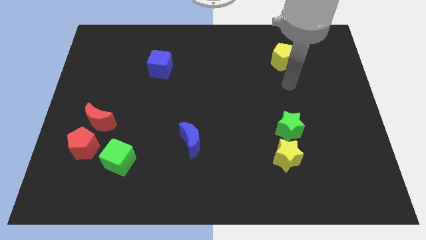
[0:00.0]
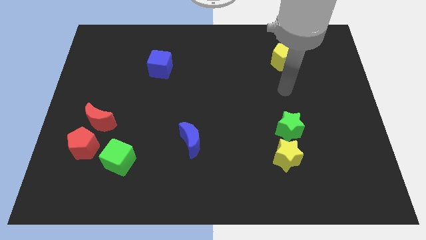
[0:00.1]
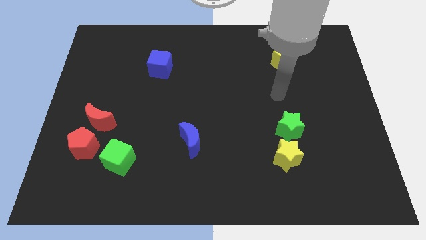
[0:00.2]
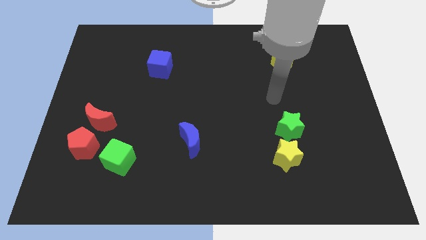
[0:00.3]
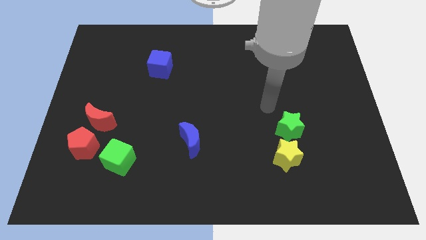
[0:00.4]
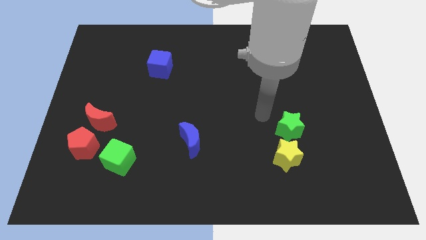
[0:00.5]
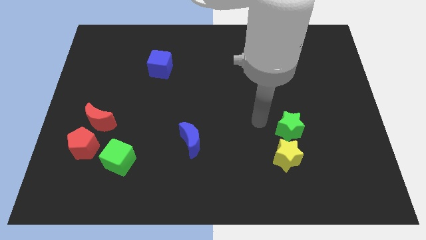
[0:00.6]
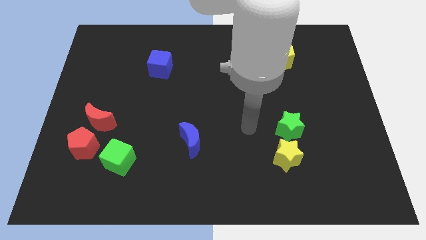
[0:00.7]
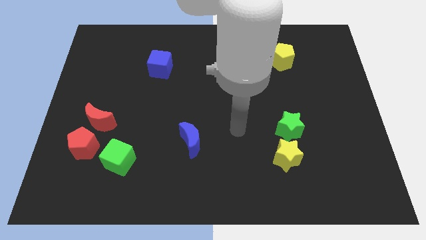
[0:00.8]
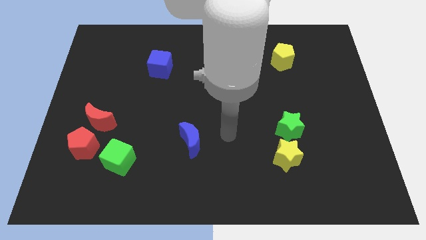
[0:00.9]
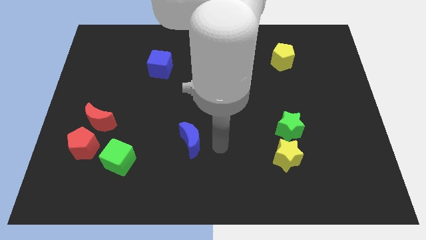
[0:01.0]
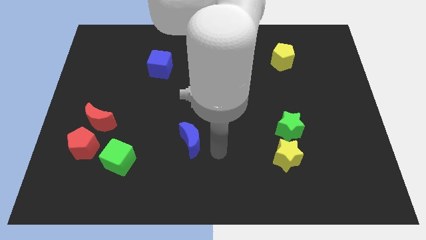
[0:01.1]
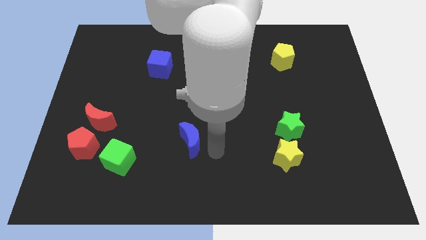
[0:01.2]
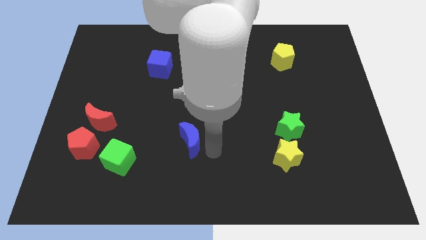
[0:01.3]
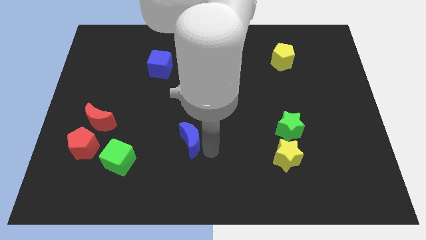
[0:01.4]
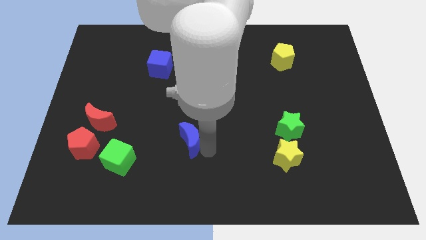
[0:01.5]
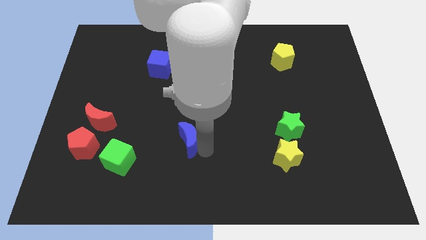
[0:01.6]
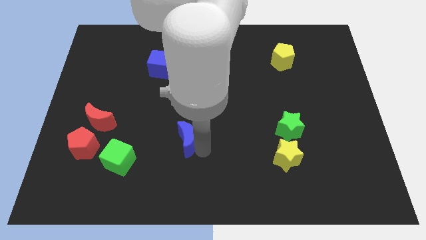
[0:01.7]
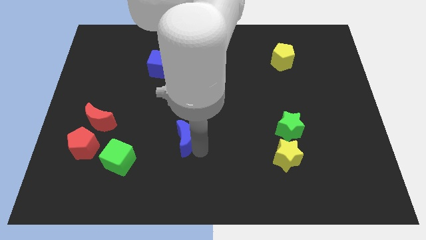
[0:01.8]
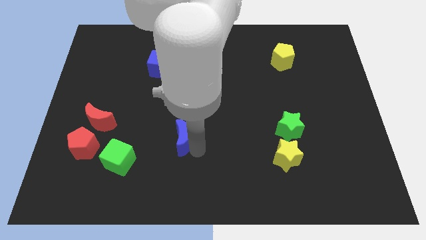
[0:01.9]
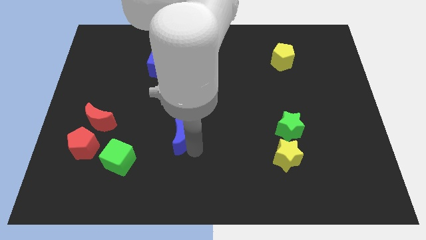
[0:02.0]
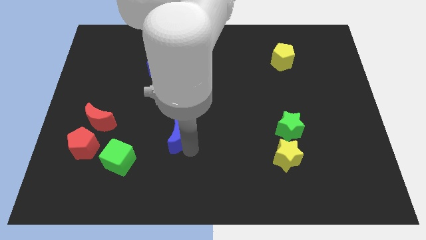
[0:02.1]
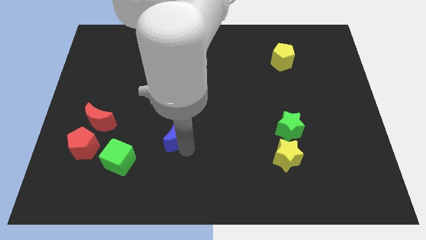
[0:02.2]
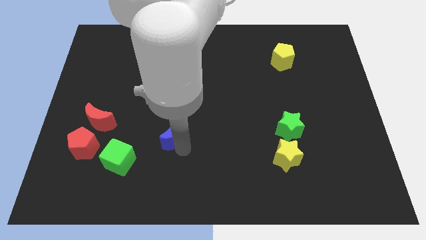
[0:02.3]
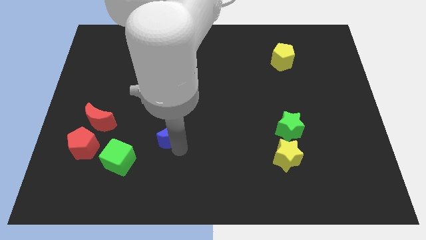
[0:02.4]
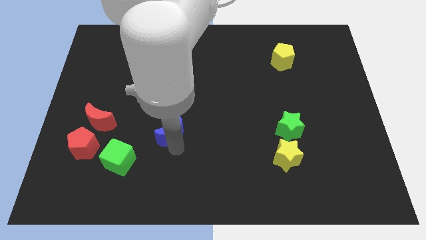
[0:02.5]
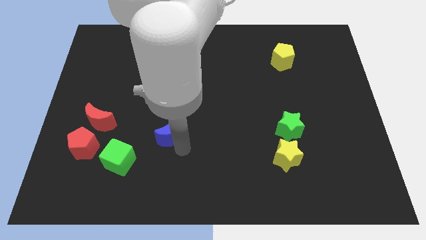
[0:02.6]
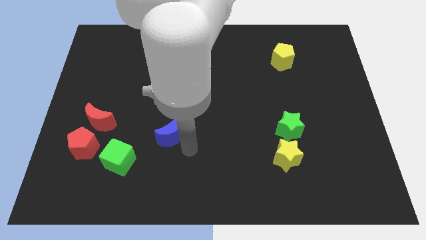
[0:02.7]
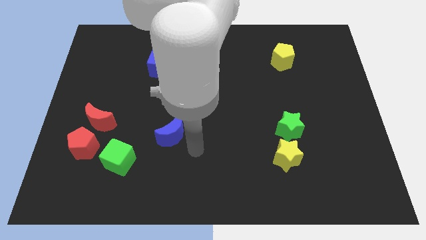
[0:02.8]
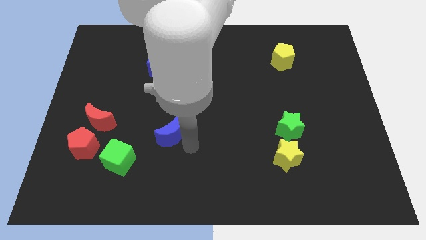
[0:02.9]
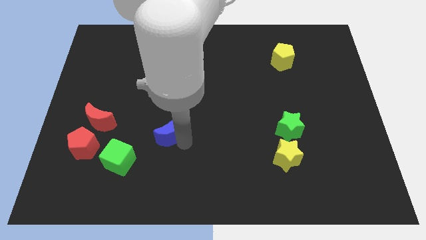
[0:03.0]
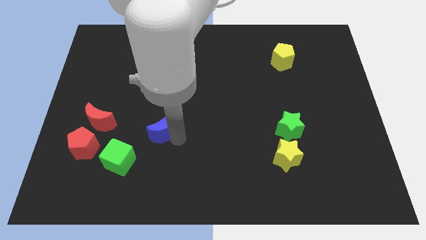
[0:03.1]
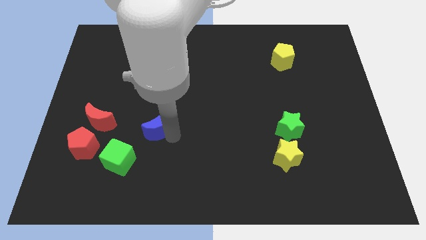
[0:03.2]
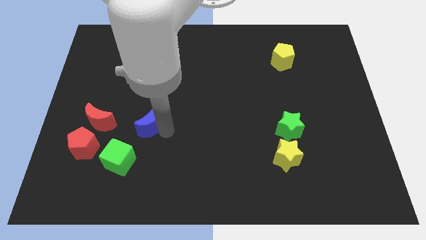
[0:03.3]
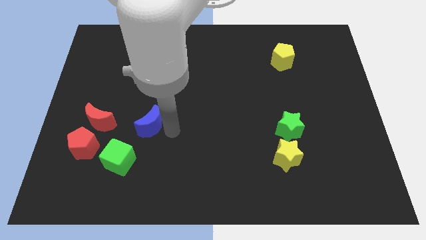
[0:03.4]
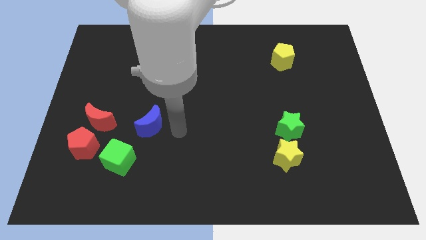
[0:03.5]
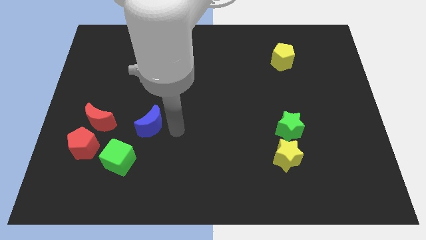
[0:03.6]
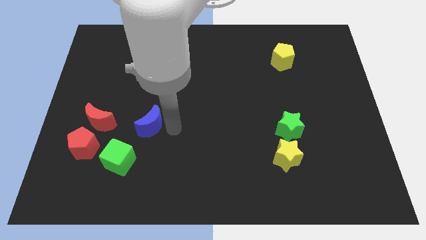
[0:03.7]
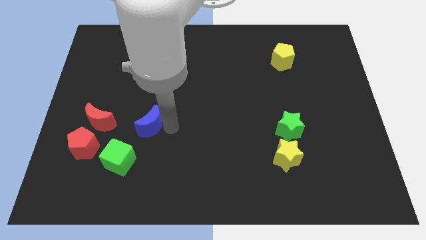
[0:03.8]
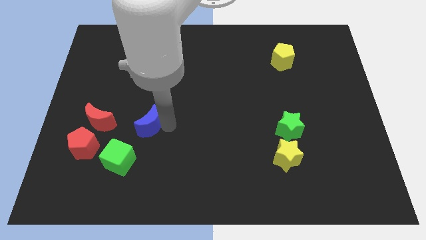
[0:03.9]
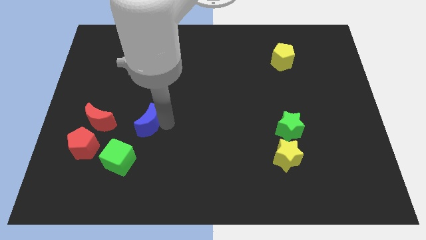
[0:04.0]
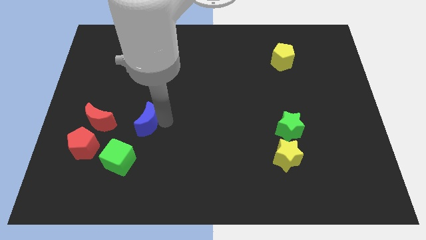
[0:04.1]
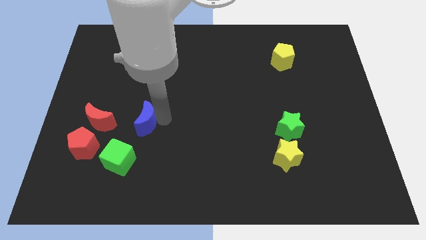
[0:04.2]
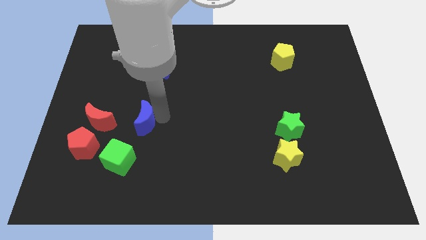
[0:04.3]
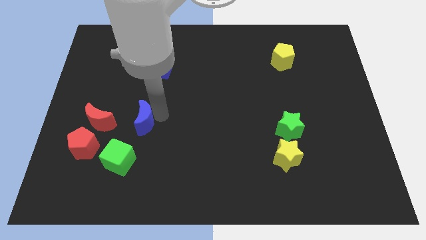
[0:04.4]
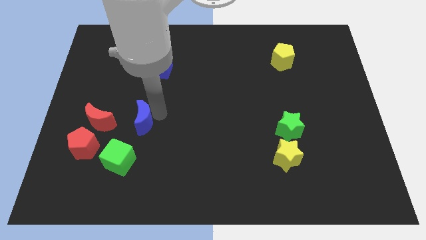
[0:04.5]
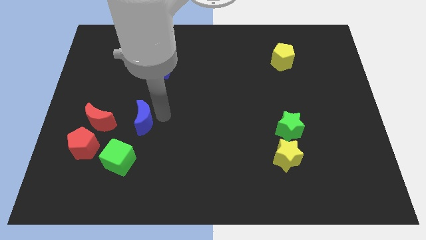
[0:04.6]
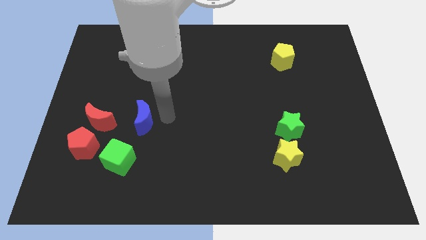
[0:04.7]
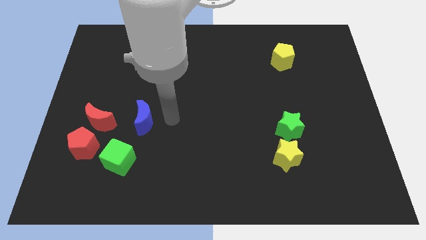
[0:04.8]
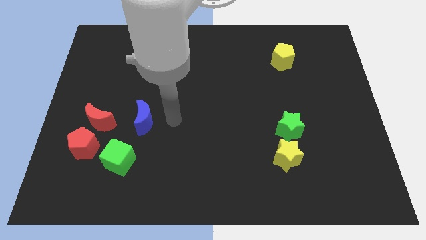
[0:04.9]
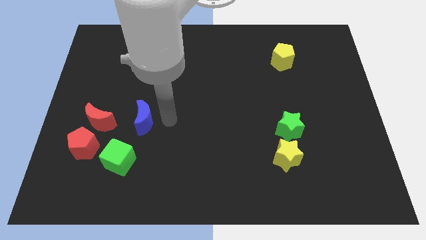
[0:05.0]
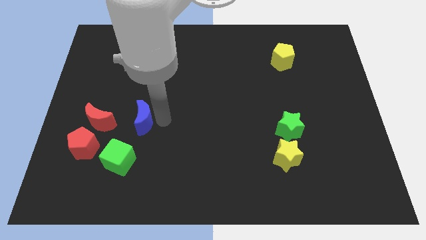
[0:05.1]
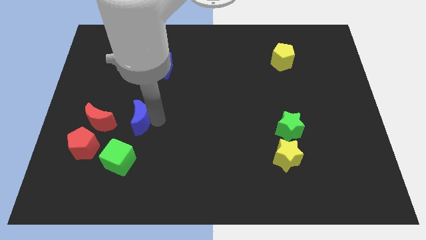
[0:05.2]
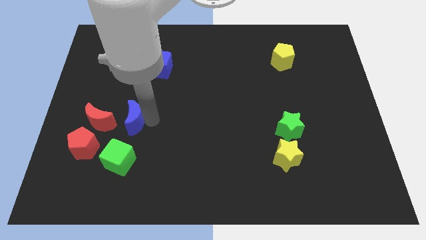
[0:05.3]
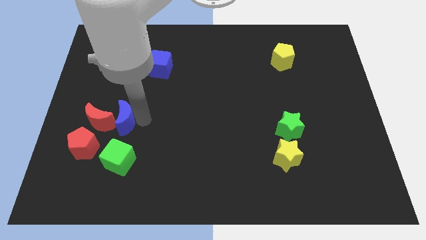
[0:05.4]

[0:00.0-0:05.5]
push the blue moon next to the red moon

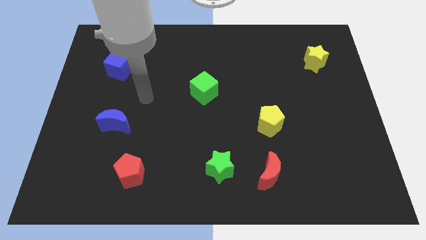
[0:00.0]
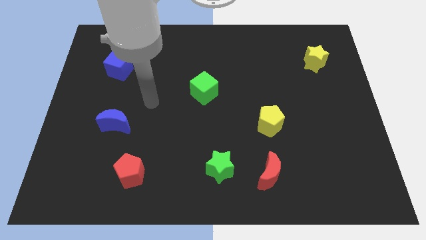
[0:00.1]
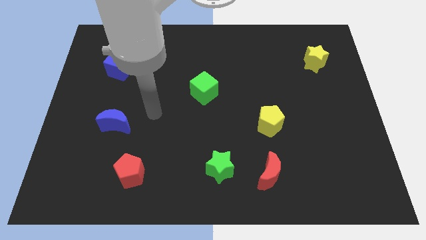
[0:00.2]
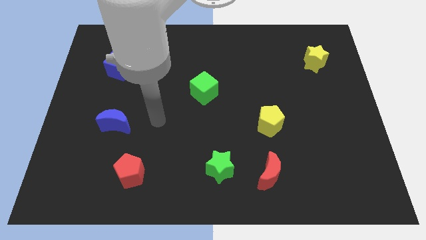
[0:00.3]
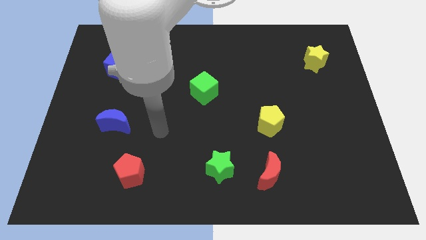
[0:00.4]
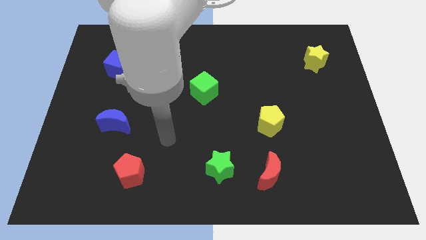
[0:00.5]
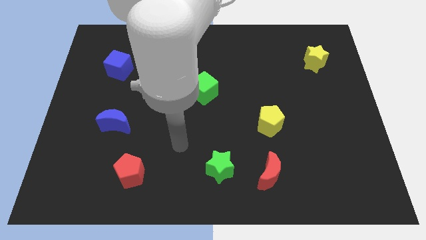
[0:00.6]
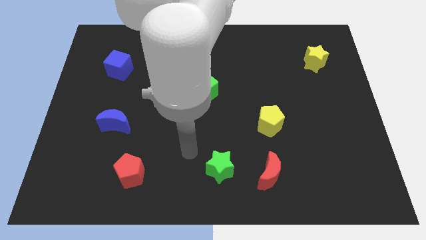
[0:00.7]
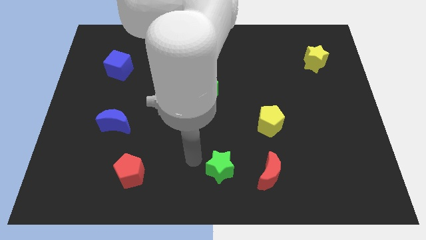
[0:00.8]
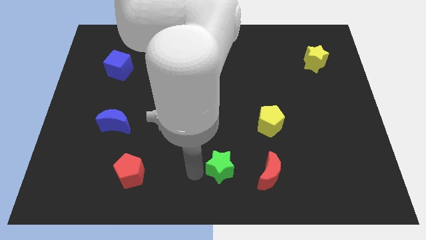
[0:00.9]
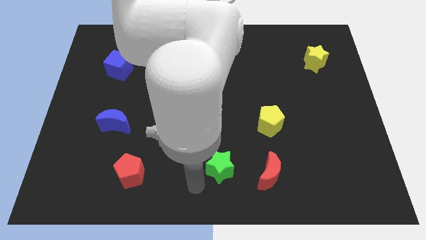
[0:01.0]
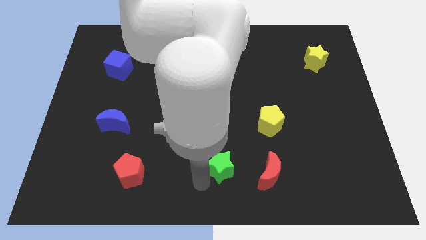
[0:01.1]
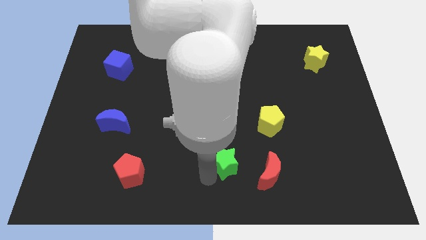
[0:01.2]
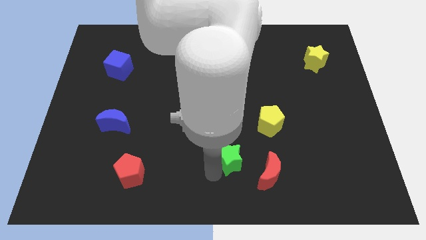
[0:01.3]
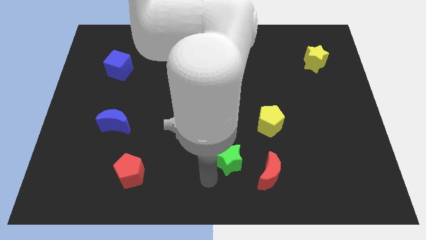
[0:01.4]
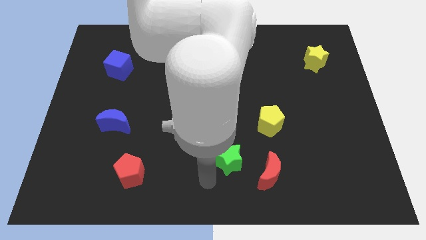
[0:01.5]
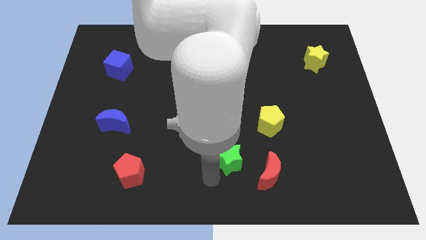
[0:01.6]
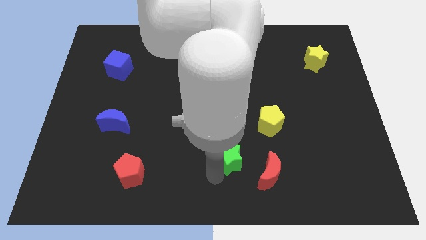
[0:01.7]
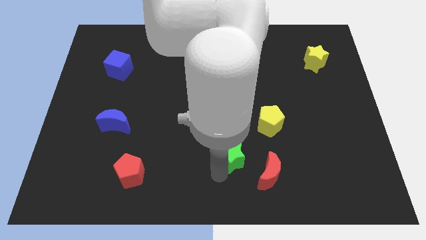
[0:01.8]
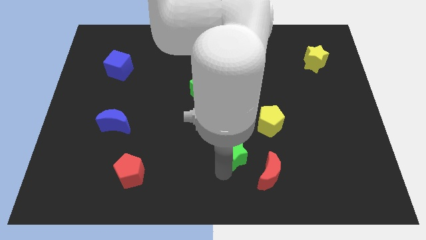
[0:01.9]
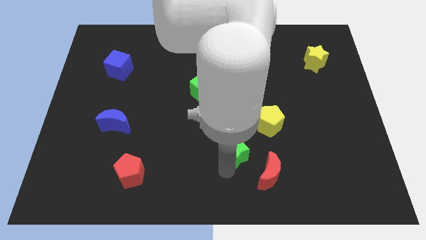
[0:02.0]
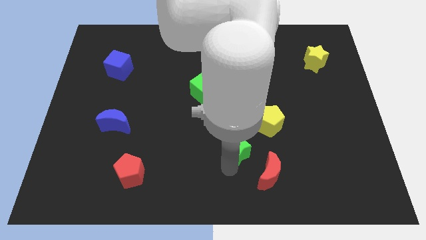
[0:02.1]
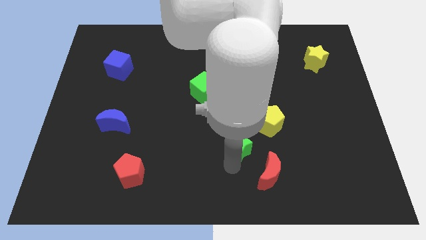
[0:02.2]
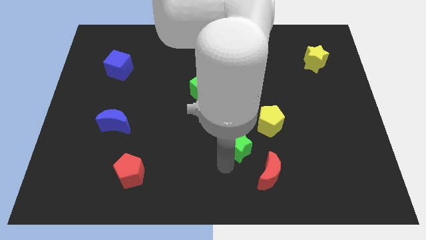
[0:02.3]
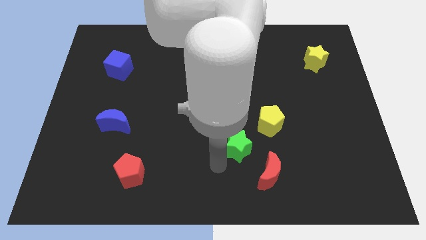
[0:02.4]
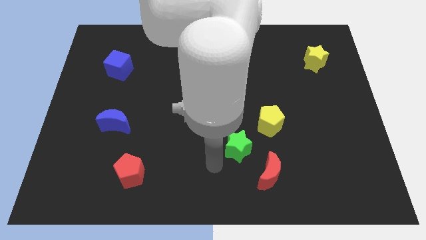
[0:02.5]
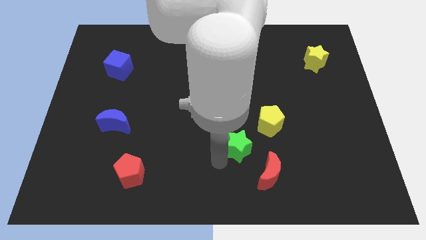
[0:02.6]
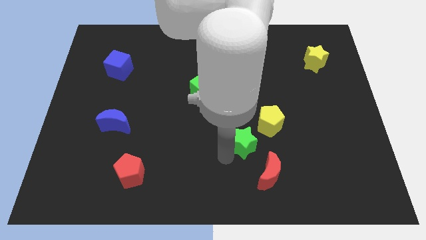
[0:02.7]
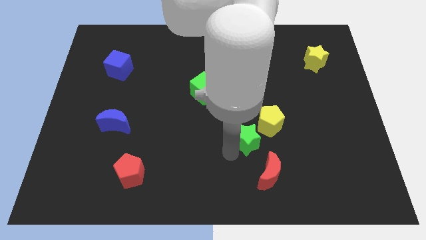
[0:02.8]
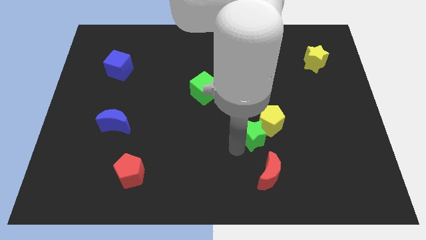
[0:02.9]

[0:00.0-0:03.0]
move the green star close to the yellow pentagon
